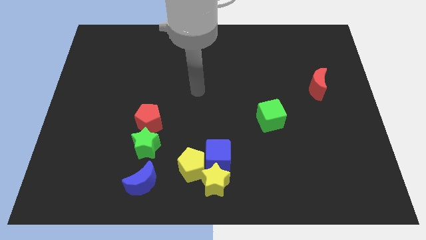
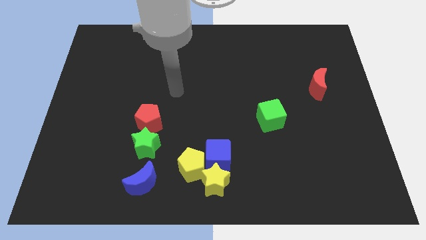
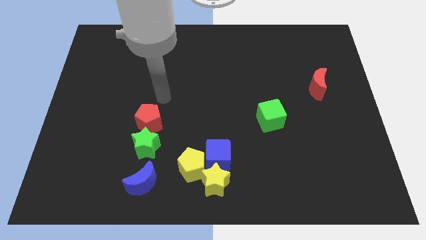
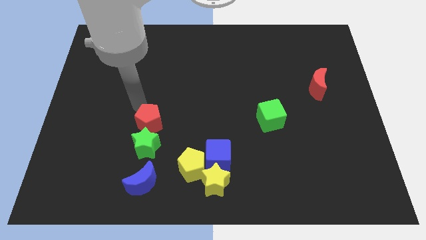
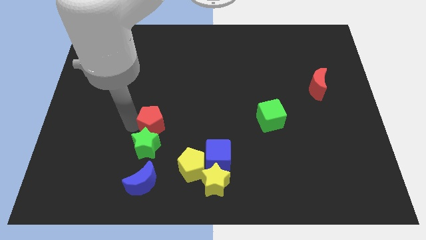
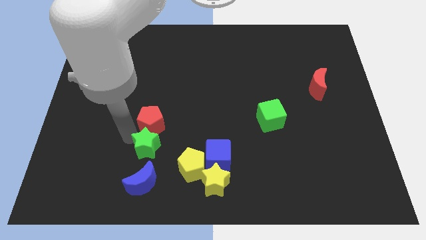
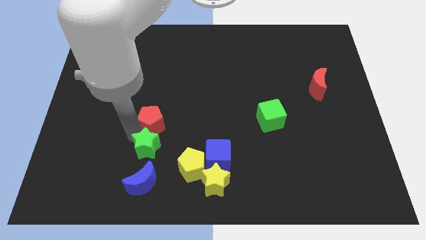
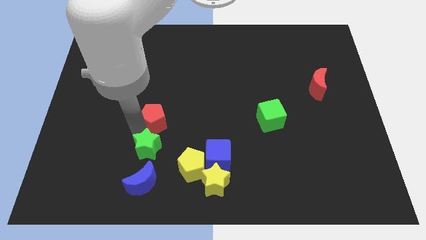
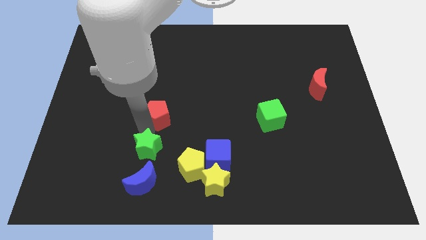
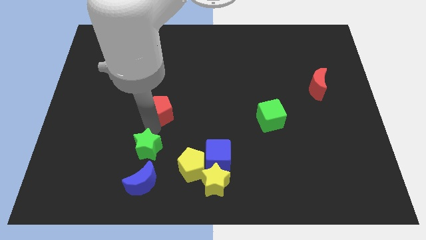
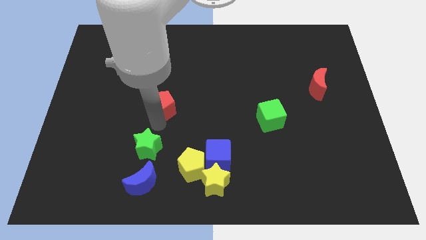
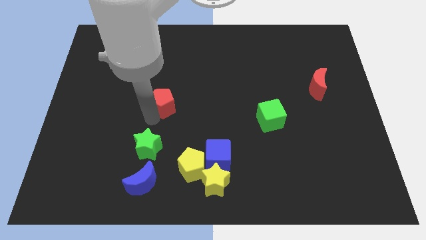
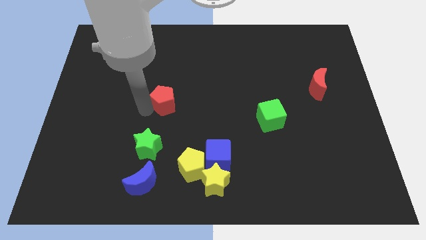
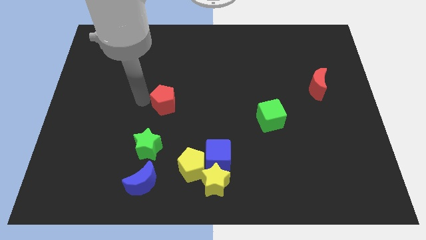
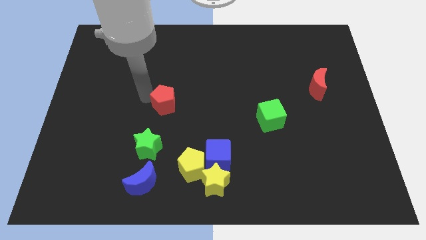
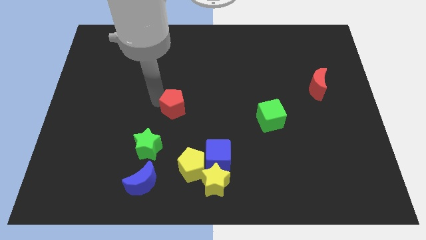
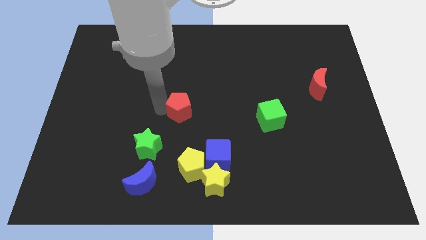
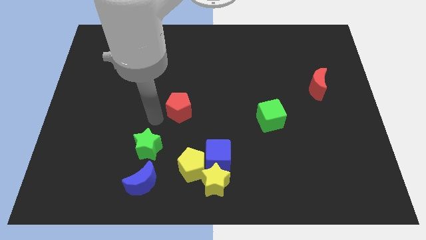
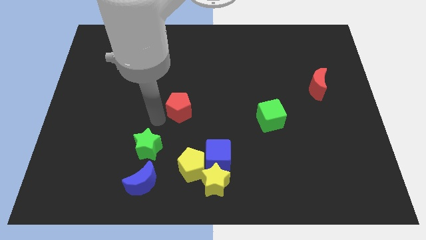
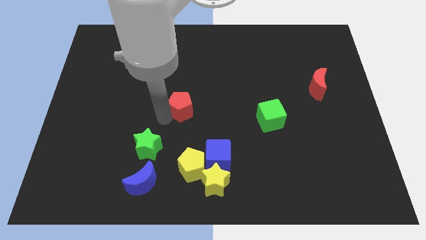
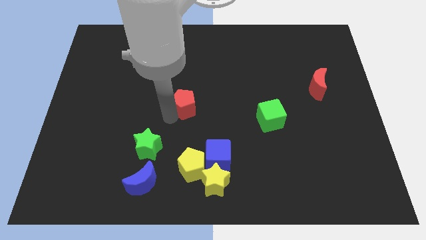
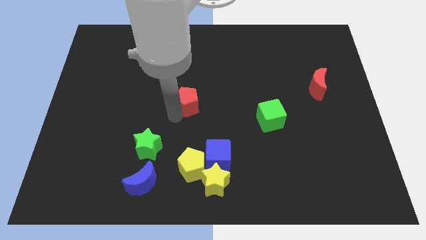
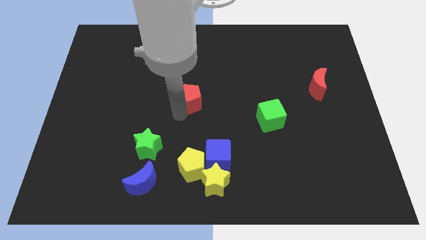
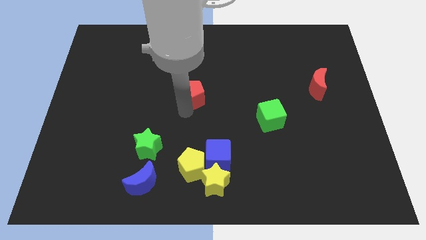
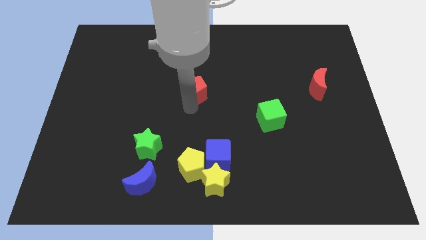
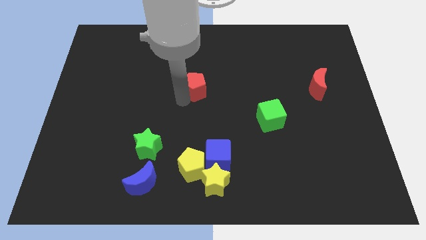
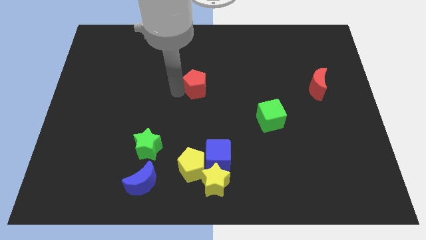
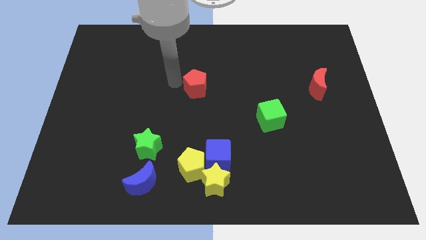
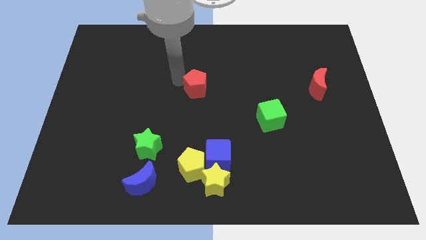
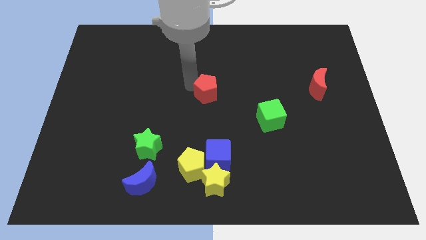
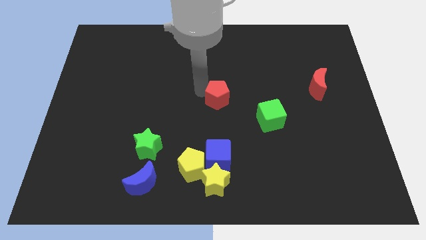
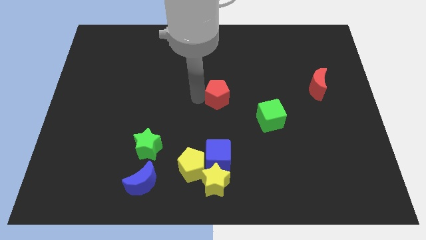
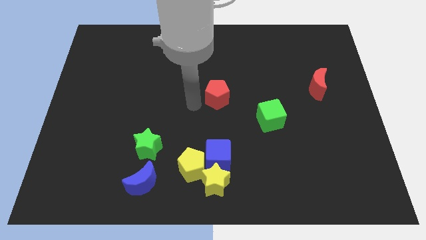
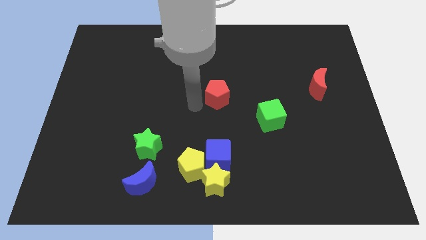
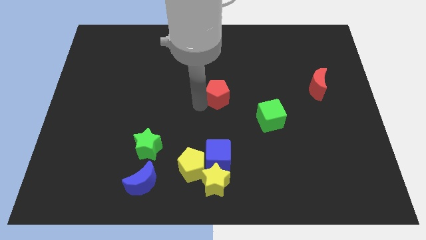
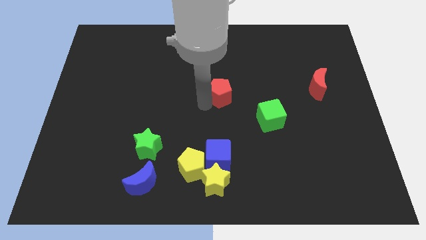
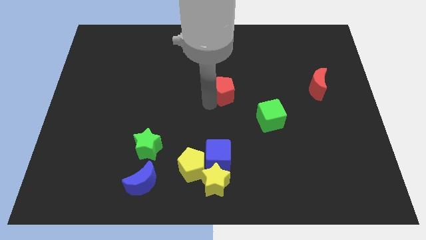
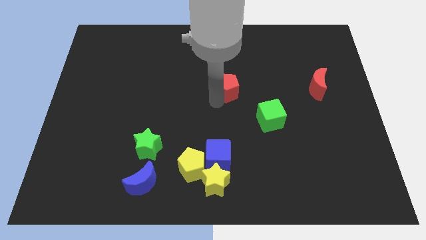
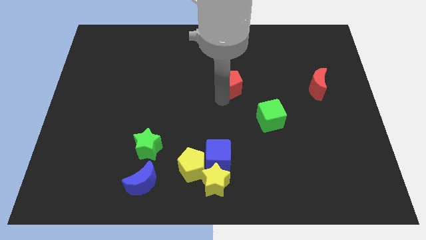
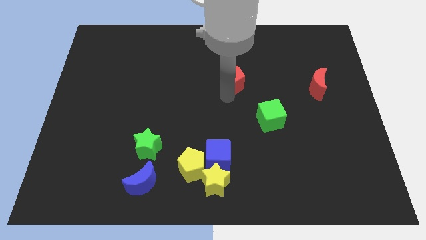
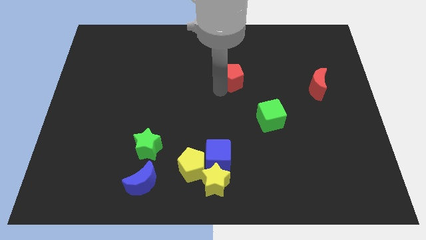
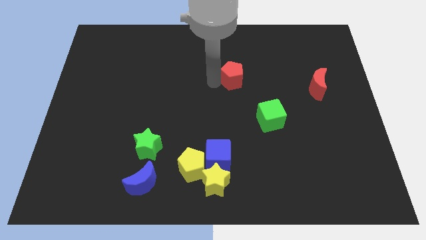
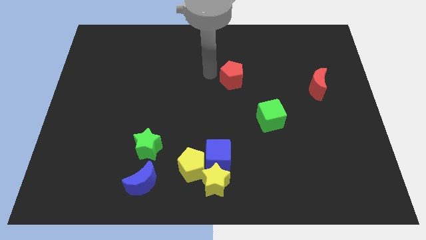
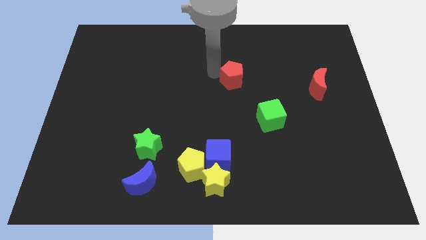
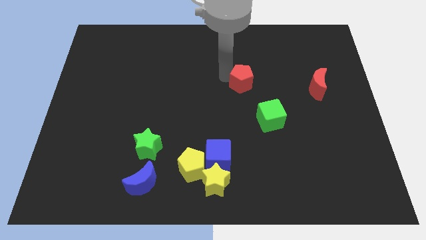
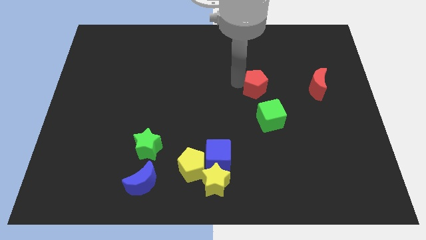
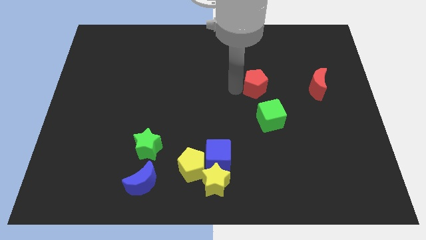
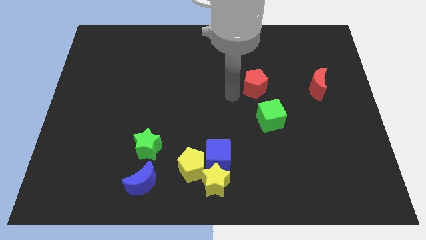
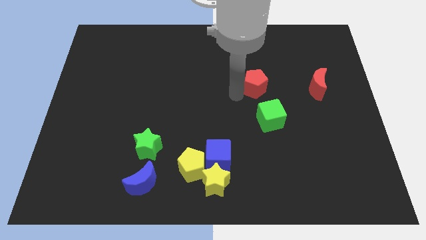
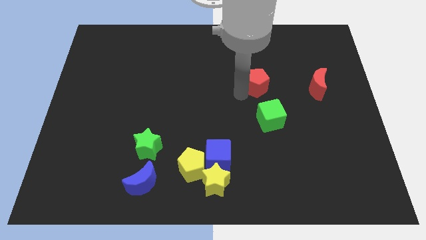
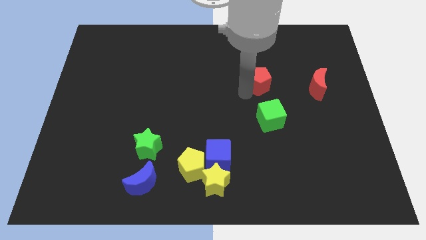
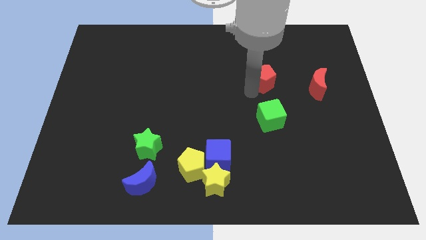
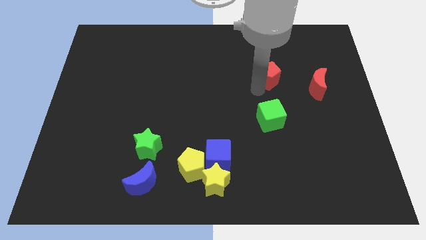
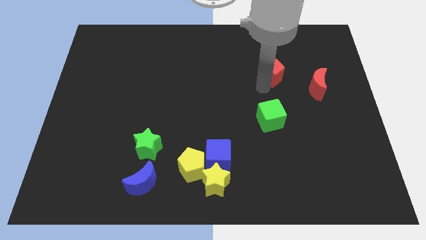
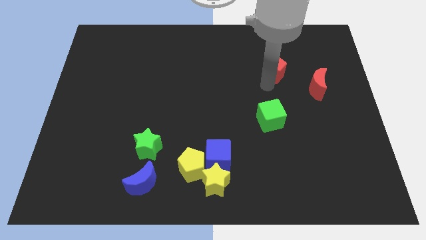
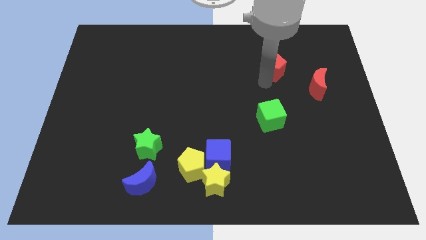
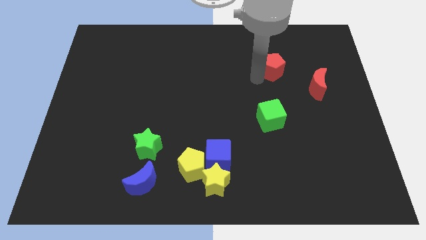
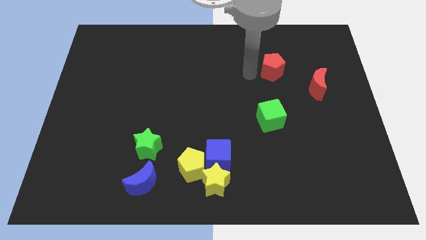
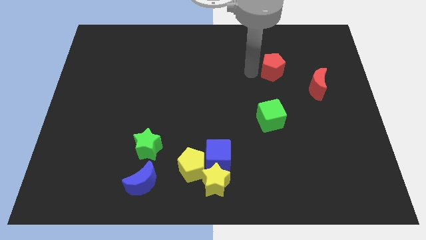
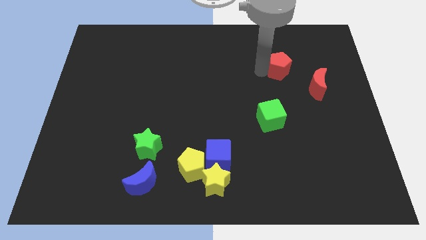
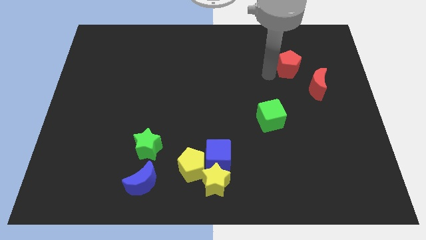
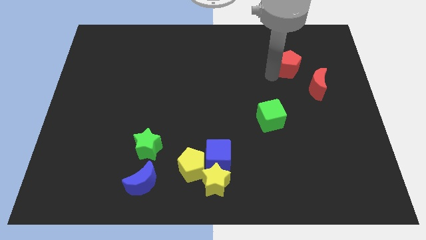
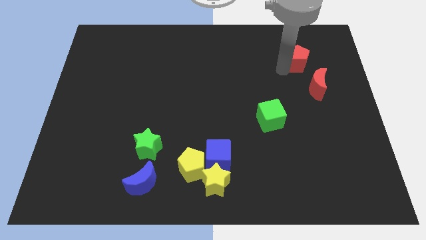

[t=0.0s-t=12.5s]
put the red pentagon to the top side of the red moon

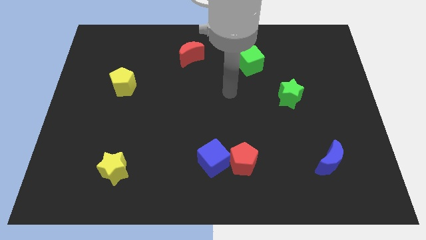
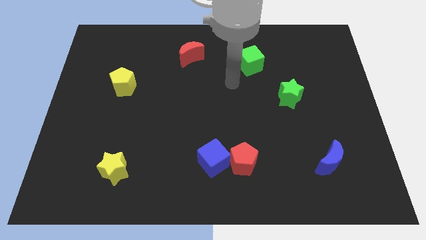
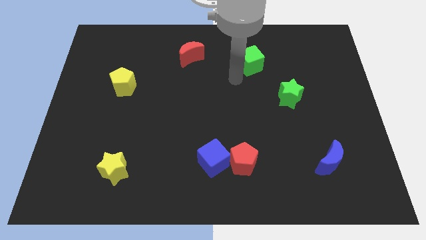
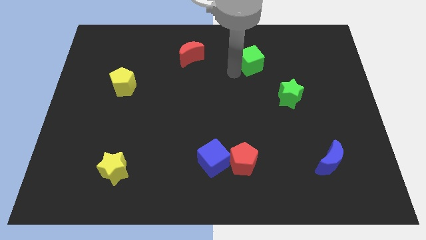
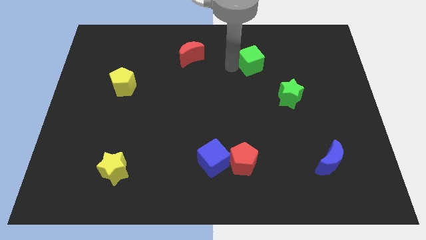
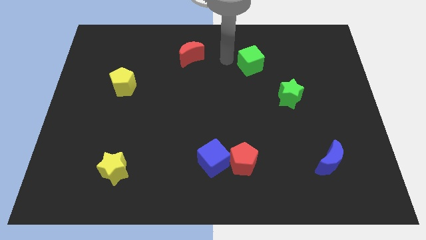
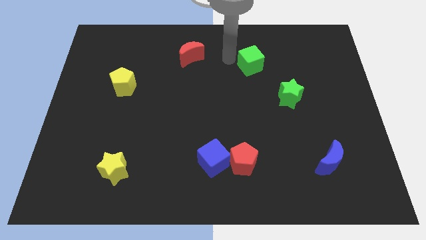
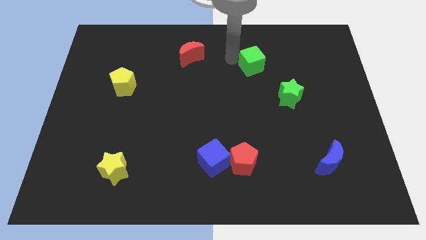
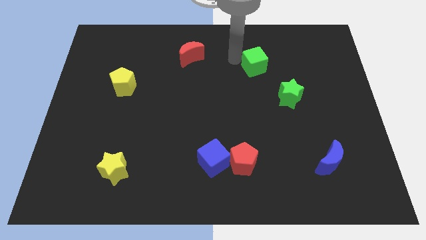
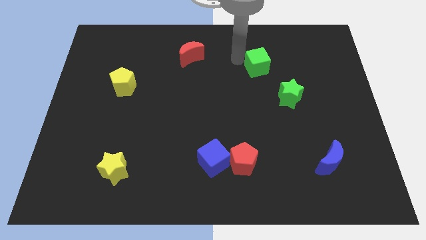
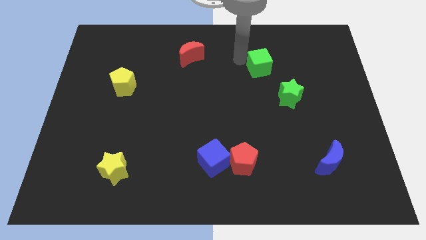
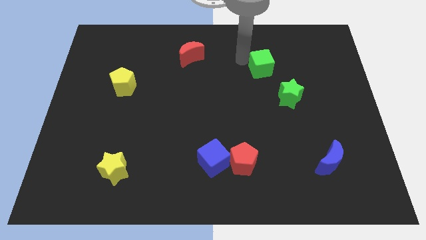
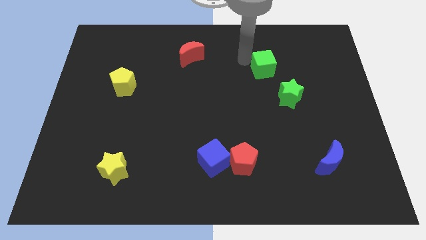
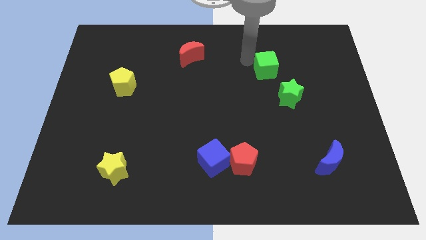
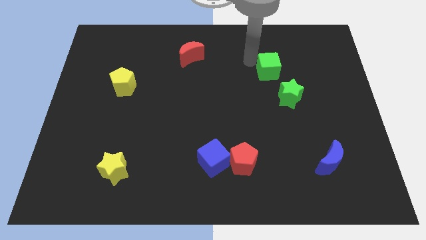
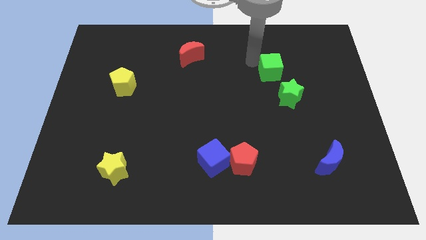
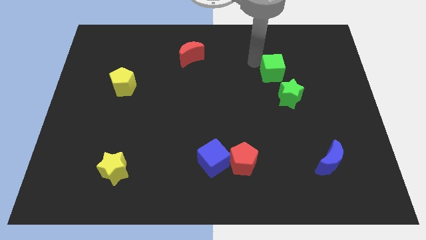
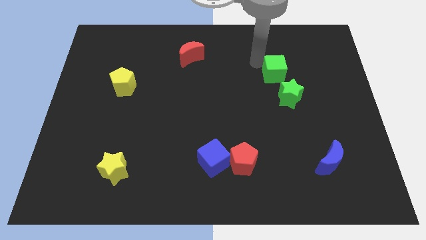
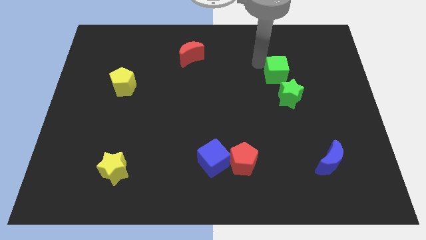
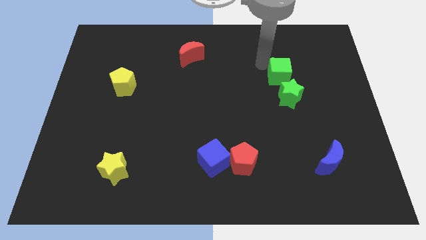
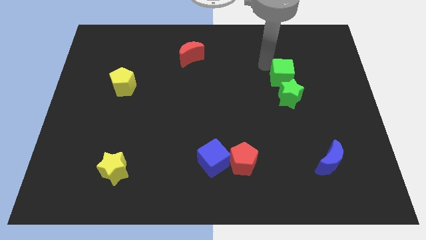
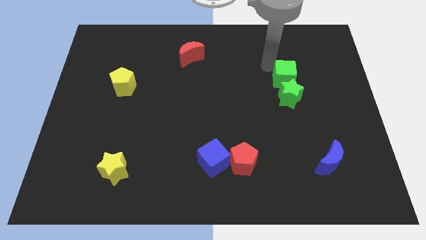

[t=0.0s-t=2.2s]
move the green cube diagonally up and to the right of the green star
